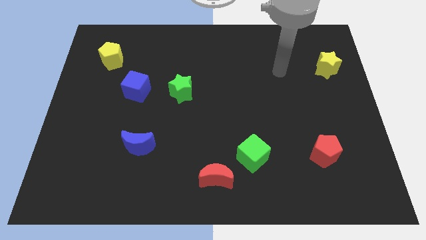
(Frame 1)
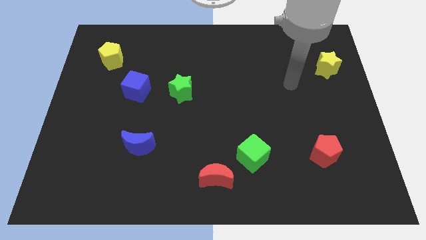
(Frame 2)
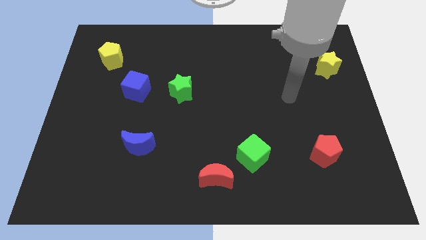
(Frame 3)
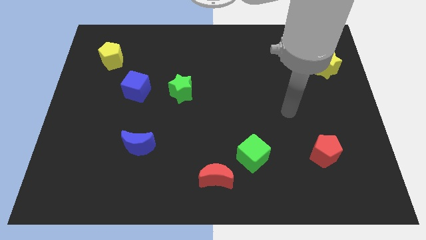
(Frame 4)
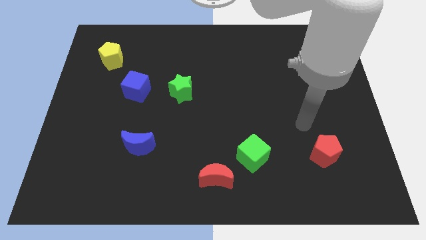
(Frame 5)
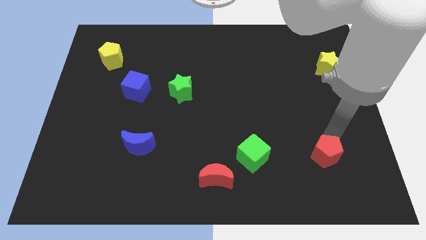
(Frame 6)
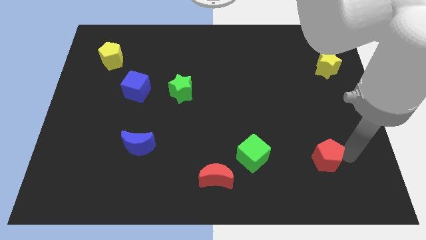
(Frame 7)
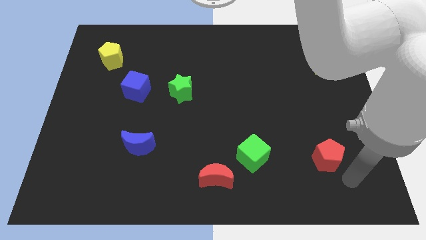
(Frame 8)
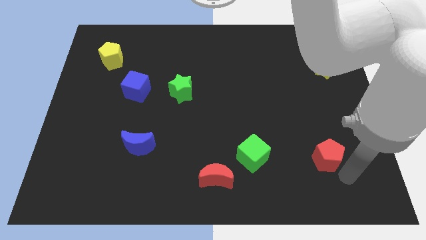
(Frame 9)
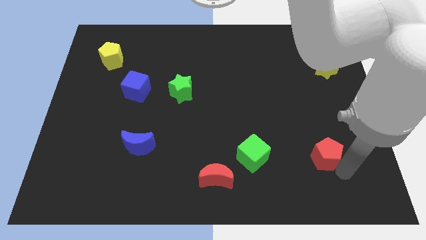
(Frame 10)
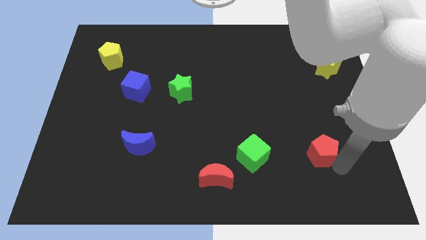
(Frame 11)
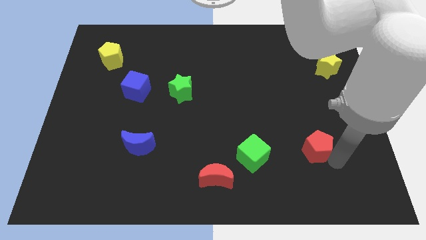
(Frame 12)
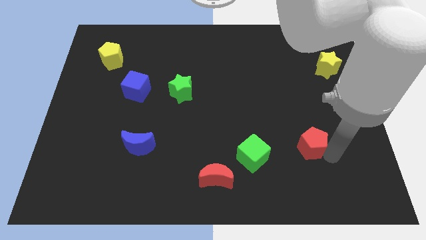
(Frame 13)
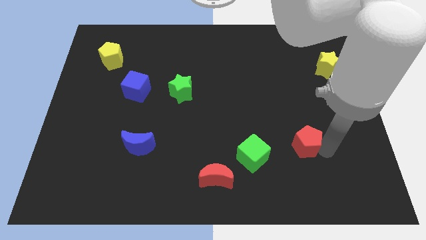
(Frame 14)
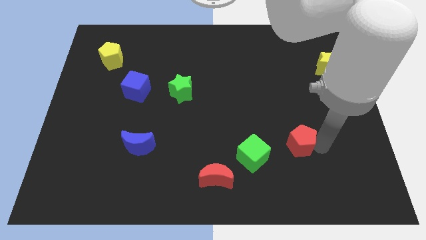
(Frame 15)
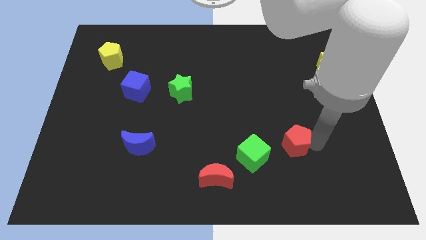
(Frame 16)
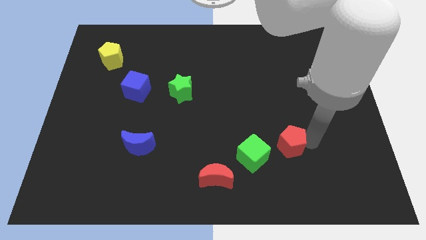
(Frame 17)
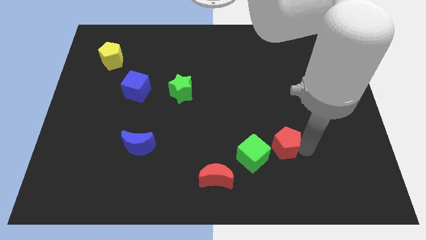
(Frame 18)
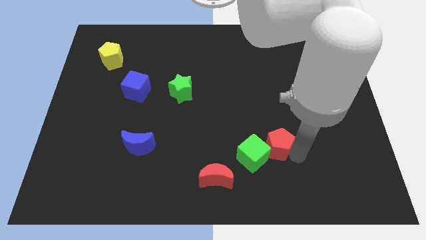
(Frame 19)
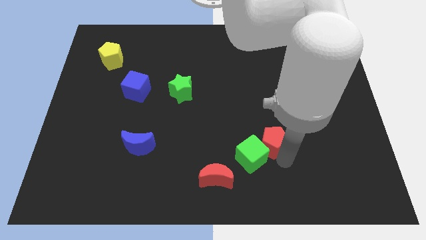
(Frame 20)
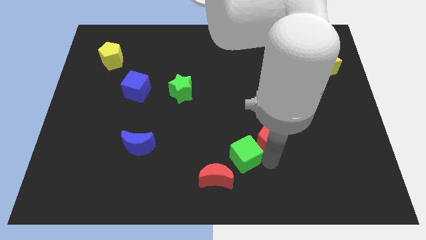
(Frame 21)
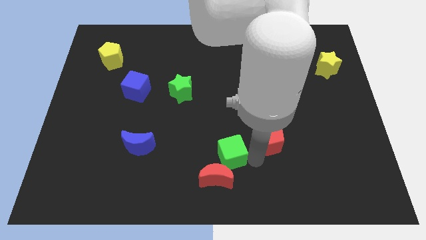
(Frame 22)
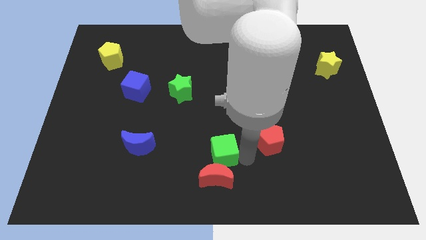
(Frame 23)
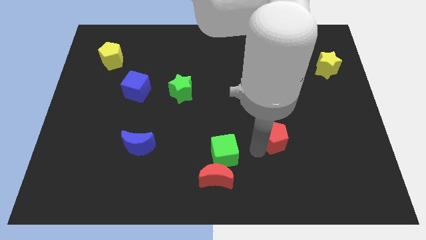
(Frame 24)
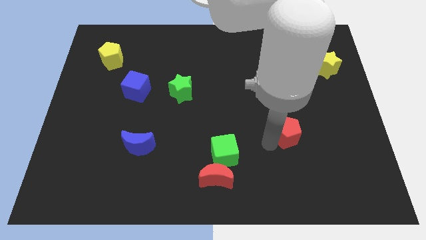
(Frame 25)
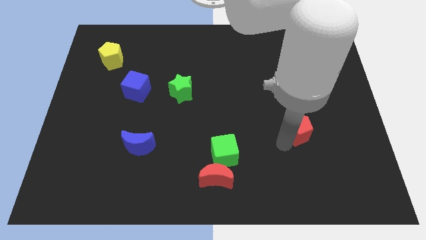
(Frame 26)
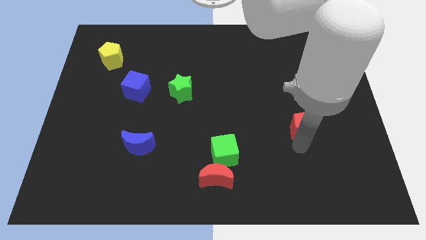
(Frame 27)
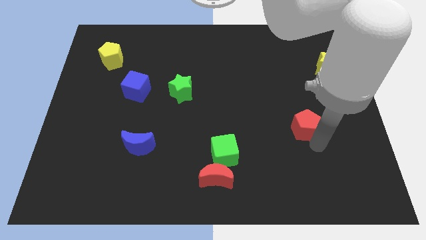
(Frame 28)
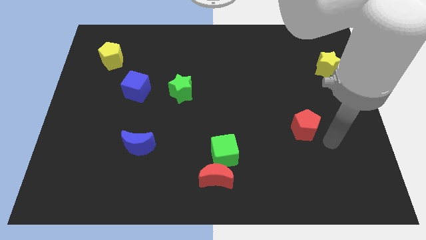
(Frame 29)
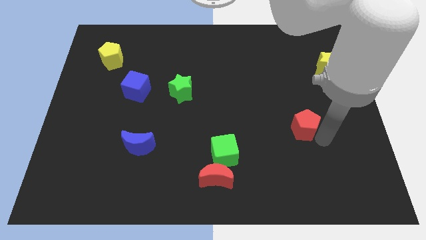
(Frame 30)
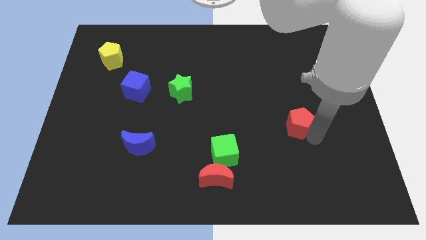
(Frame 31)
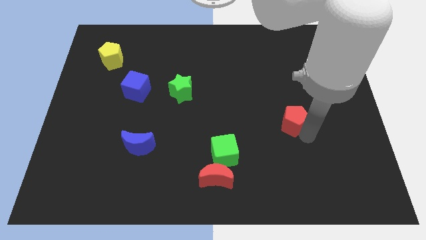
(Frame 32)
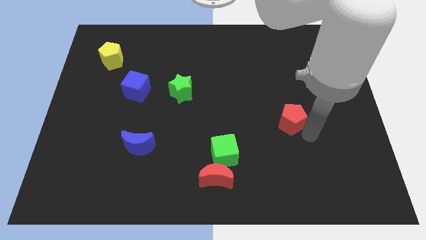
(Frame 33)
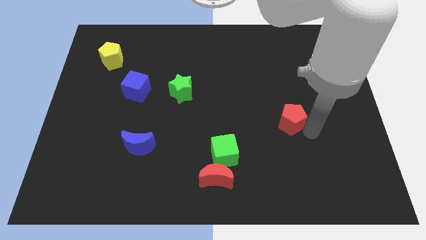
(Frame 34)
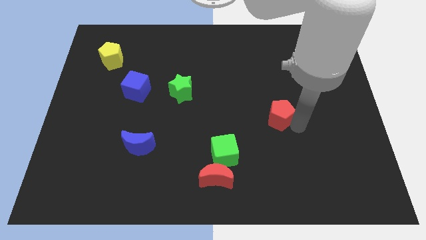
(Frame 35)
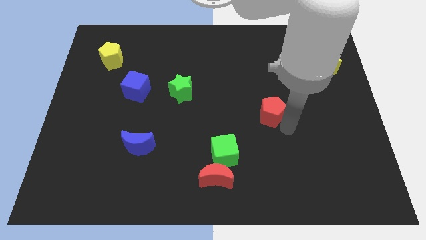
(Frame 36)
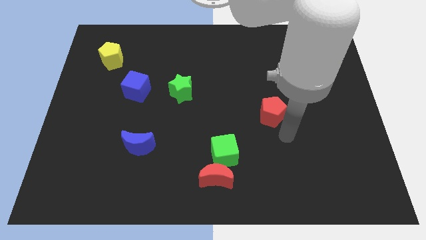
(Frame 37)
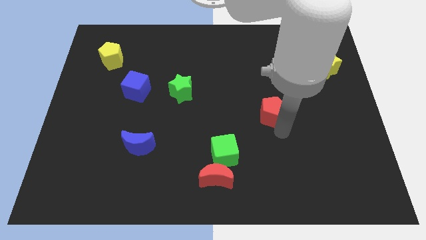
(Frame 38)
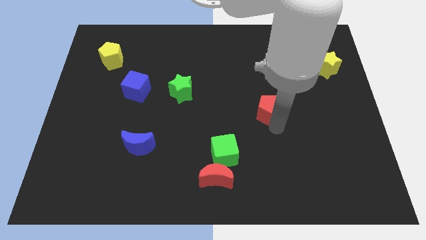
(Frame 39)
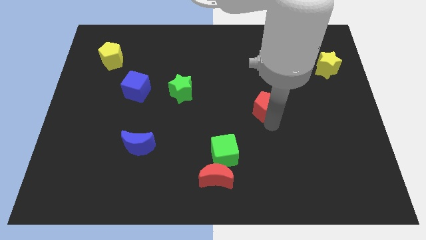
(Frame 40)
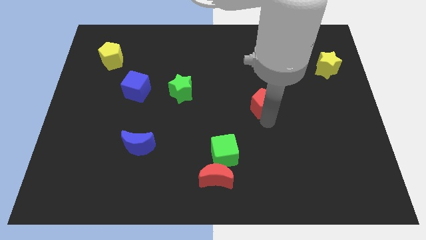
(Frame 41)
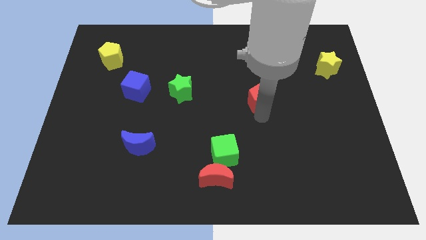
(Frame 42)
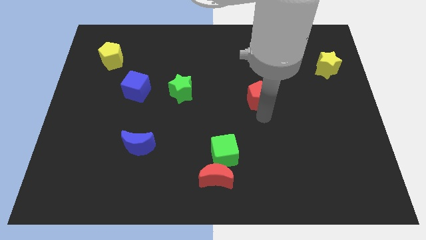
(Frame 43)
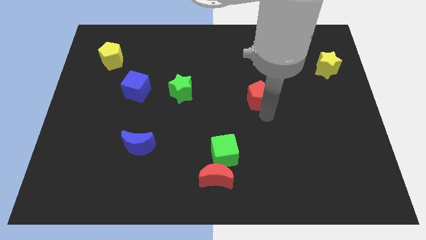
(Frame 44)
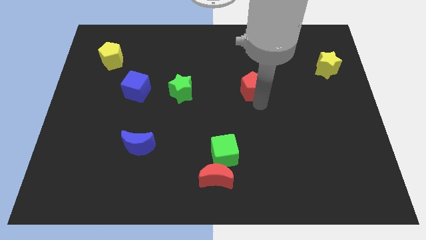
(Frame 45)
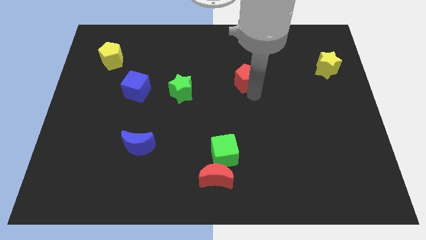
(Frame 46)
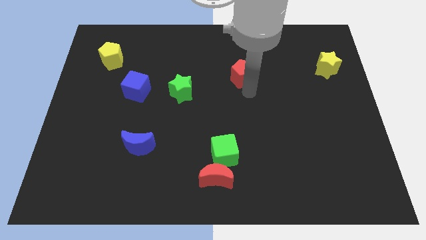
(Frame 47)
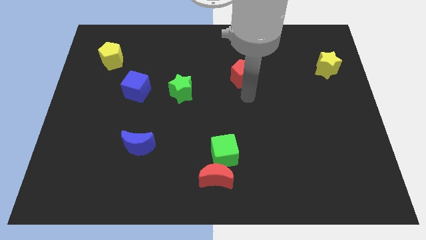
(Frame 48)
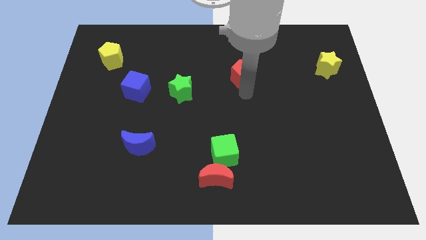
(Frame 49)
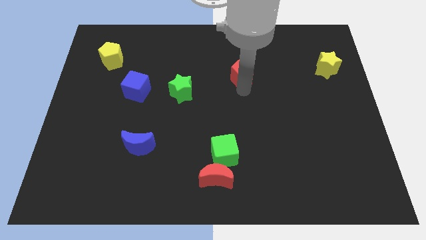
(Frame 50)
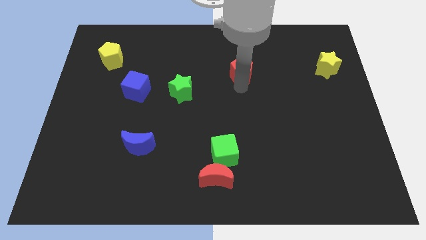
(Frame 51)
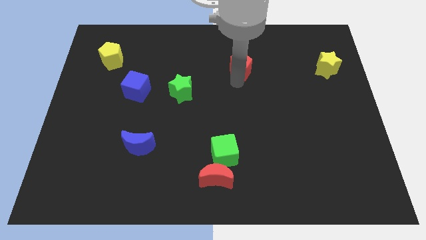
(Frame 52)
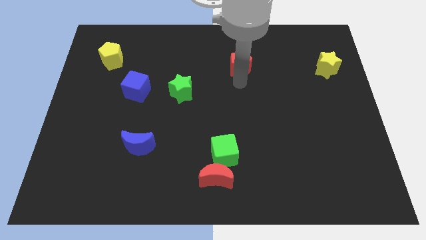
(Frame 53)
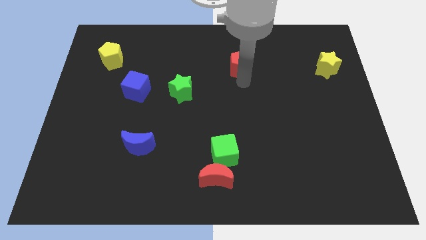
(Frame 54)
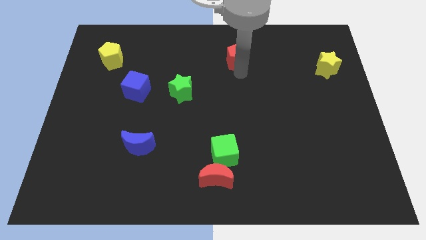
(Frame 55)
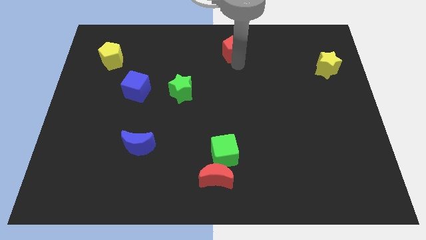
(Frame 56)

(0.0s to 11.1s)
push the red pentagon to the top side

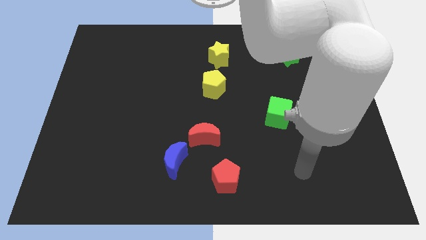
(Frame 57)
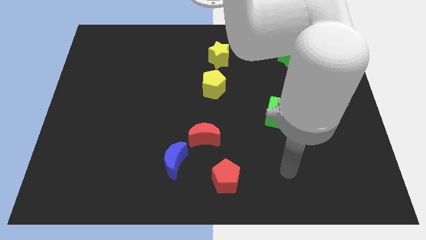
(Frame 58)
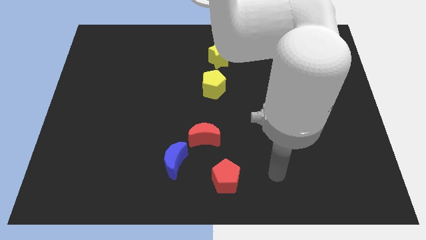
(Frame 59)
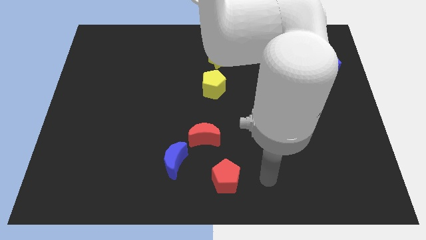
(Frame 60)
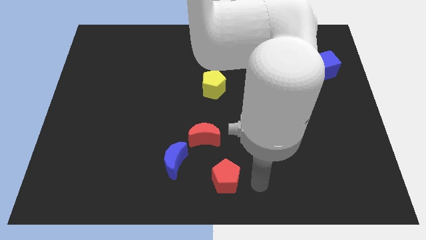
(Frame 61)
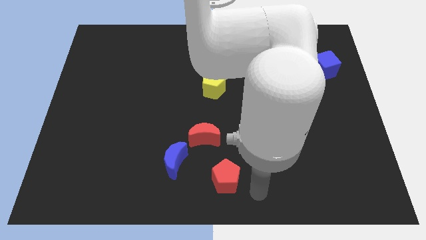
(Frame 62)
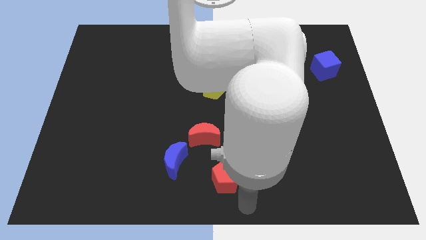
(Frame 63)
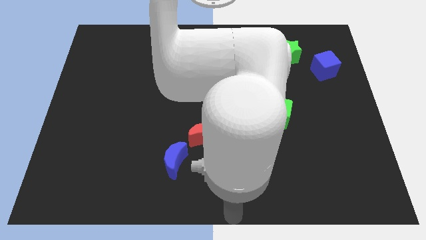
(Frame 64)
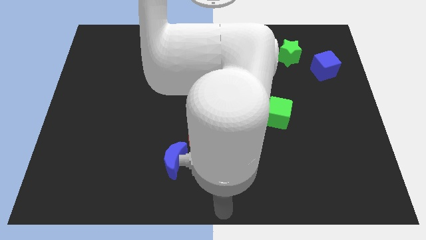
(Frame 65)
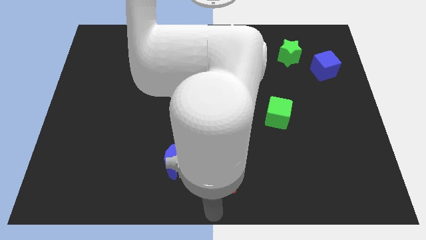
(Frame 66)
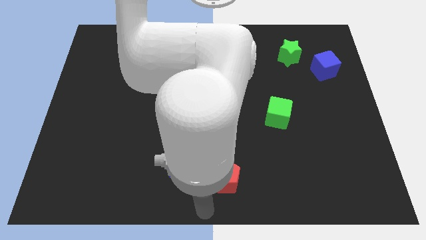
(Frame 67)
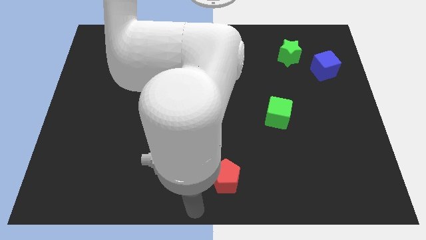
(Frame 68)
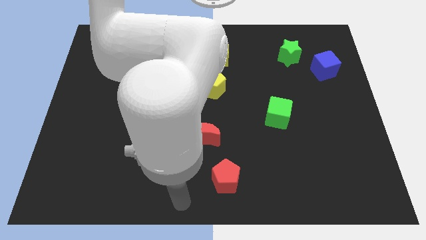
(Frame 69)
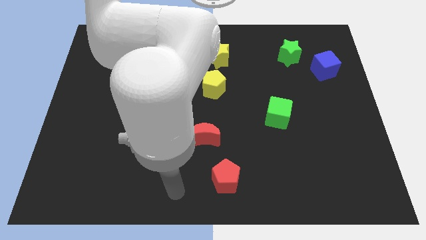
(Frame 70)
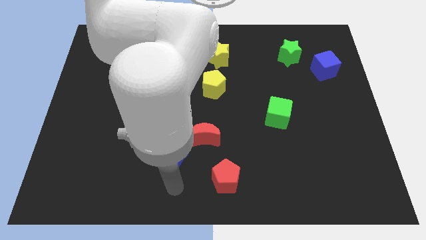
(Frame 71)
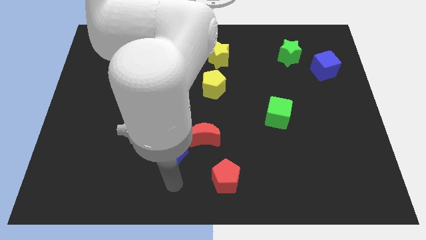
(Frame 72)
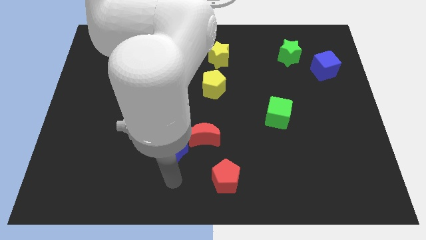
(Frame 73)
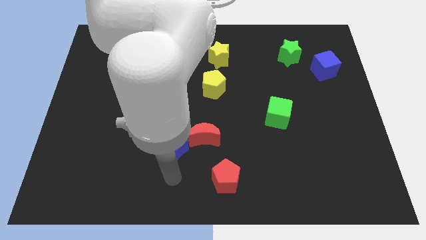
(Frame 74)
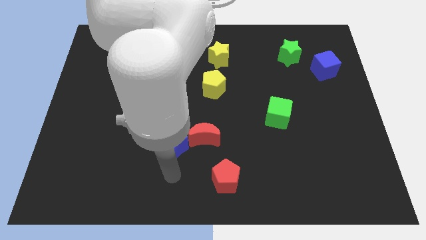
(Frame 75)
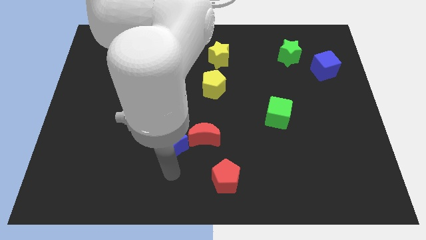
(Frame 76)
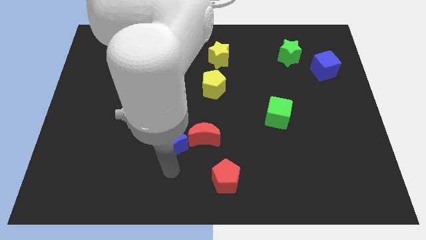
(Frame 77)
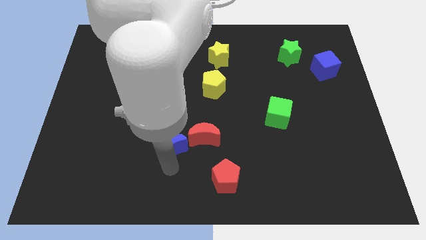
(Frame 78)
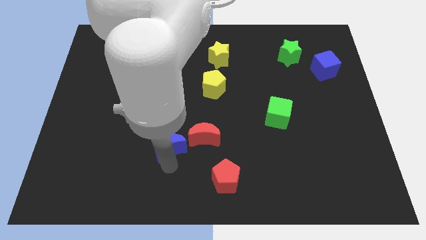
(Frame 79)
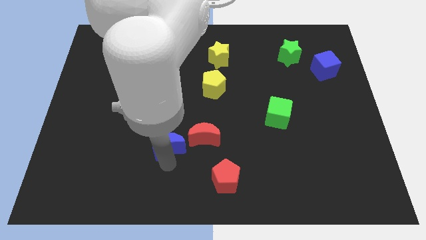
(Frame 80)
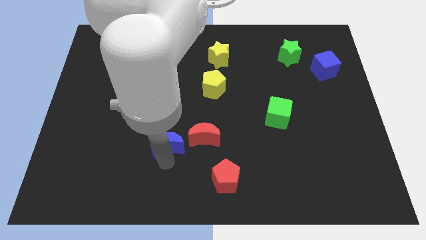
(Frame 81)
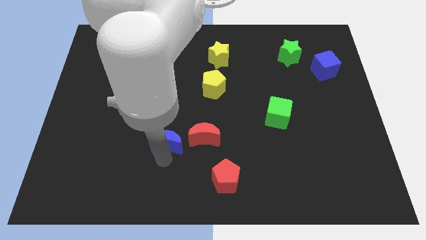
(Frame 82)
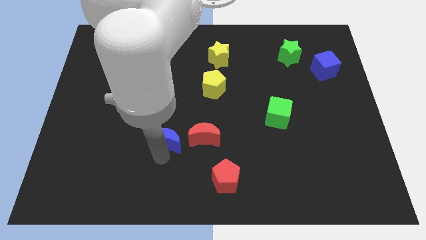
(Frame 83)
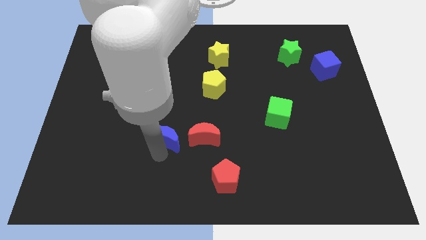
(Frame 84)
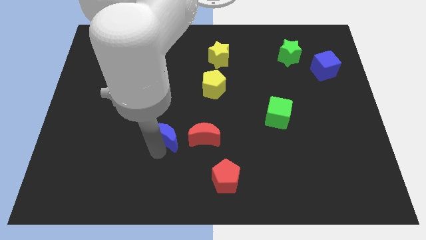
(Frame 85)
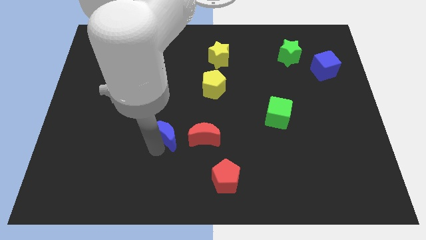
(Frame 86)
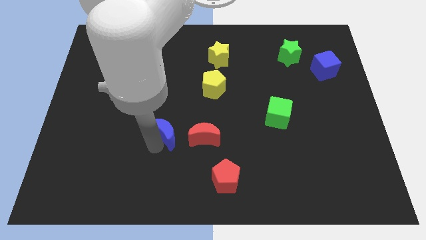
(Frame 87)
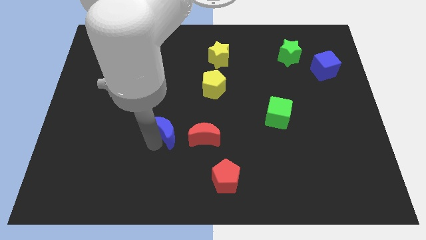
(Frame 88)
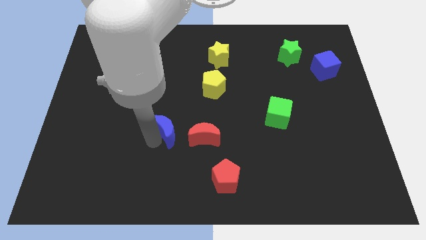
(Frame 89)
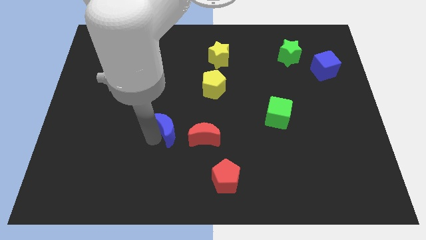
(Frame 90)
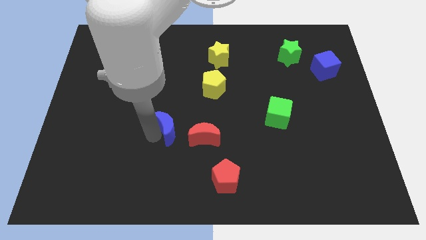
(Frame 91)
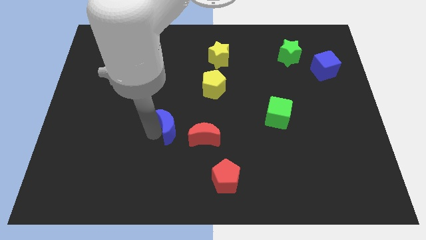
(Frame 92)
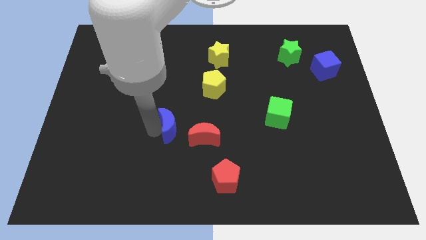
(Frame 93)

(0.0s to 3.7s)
push the blue moon to the center of the board
